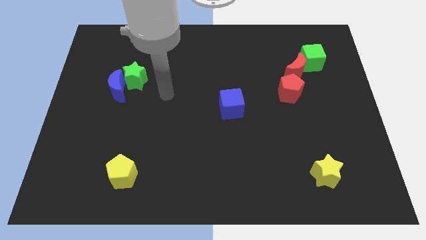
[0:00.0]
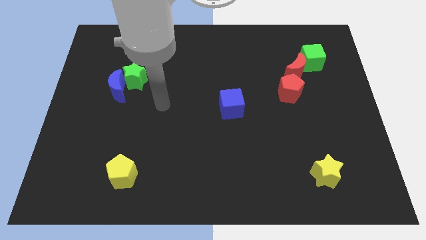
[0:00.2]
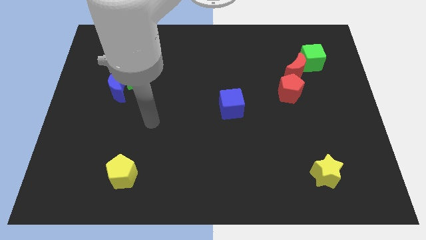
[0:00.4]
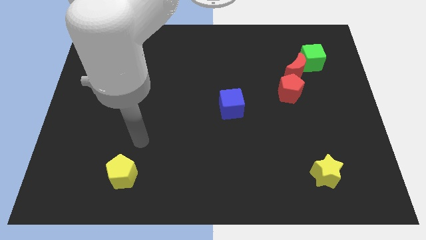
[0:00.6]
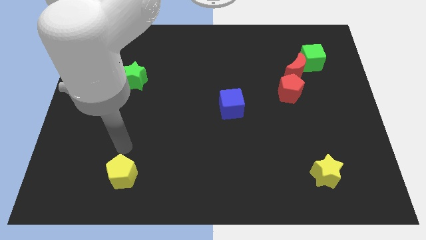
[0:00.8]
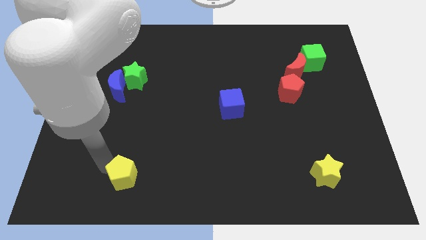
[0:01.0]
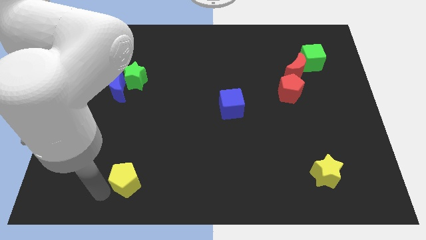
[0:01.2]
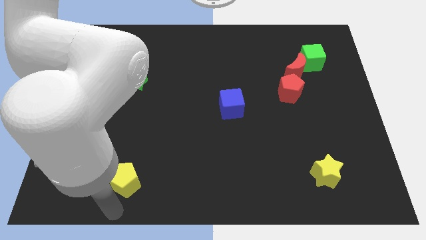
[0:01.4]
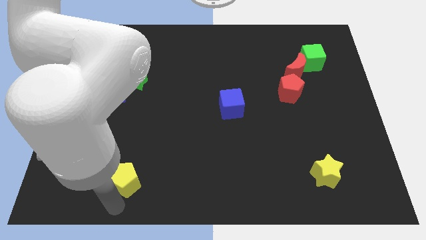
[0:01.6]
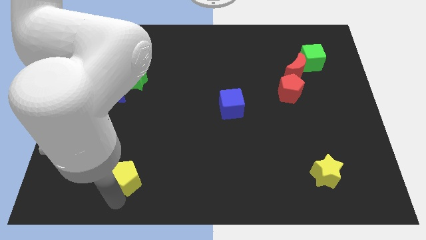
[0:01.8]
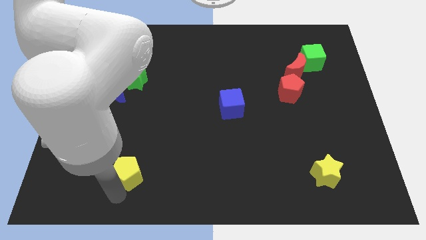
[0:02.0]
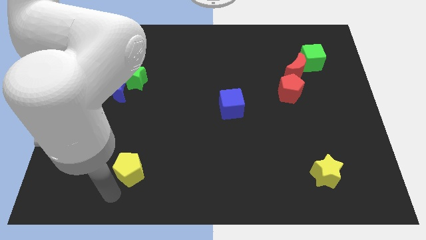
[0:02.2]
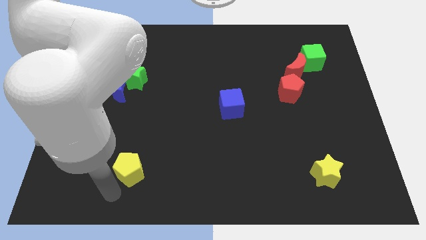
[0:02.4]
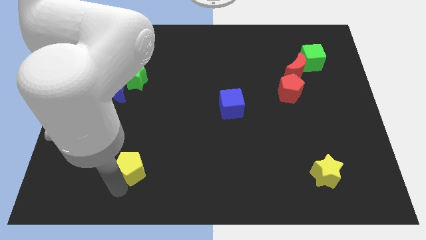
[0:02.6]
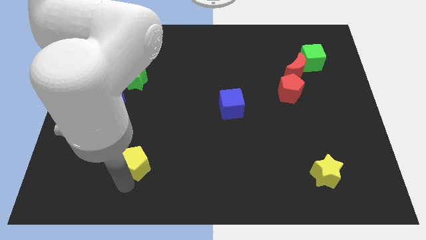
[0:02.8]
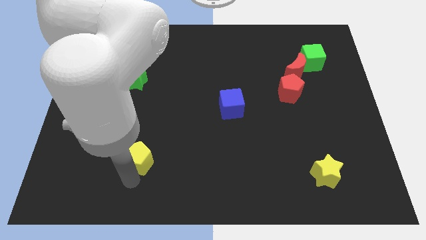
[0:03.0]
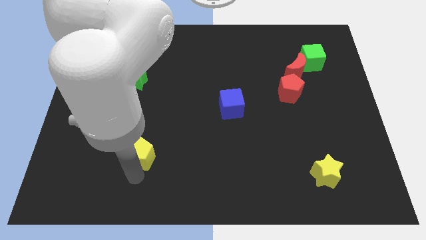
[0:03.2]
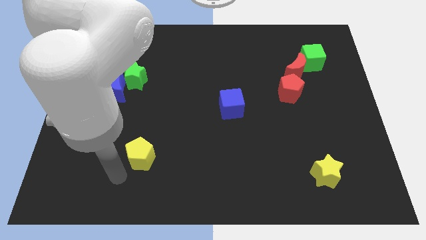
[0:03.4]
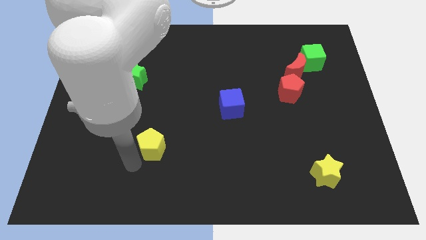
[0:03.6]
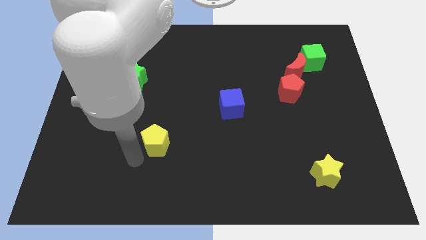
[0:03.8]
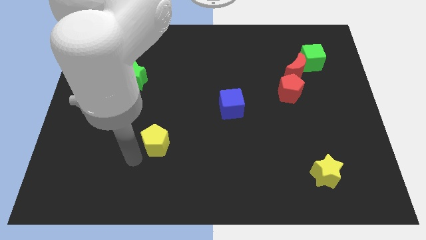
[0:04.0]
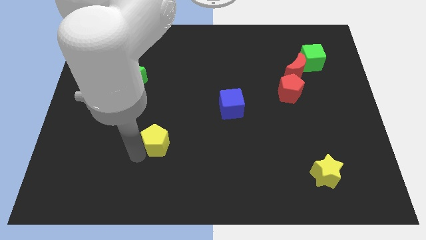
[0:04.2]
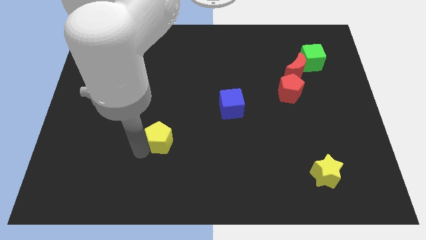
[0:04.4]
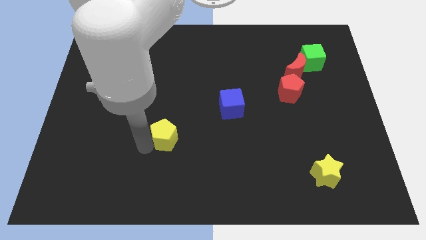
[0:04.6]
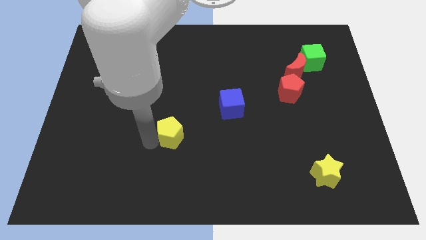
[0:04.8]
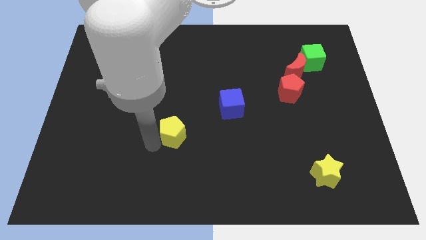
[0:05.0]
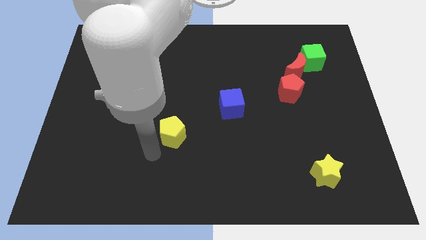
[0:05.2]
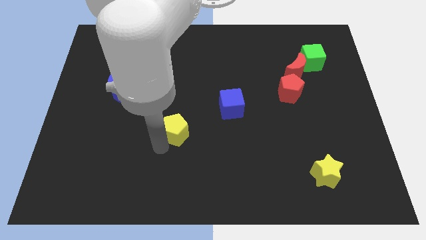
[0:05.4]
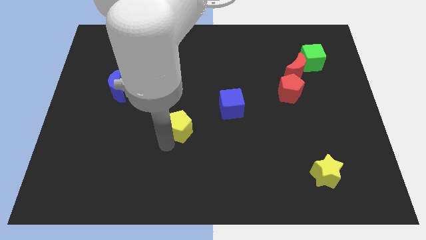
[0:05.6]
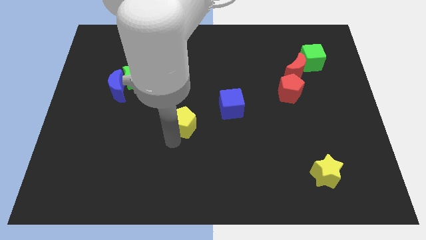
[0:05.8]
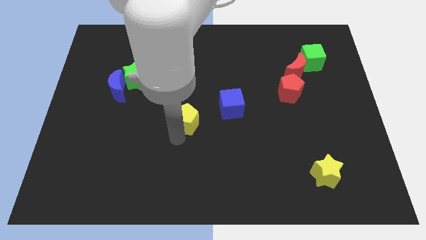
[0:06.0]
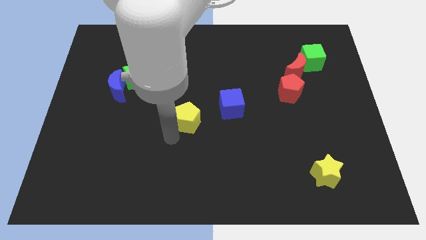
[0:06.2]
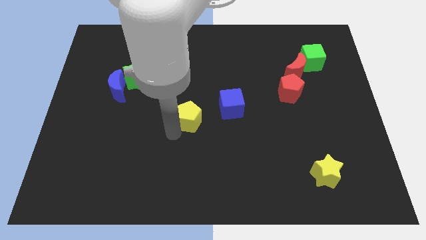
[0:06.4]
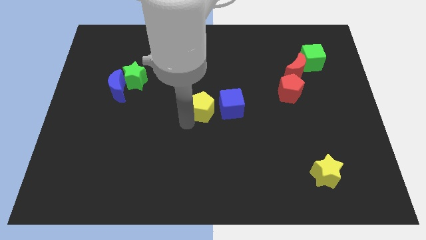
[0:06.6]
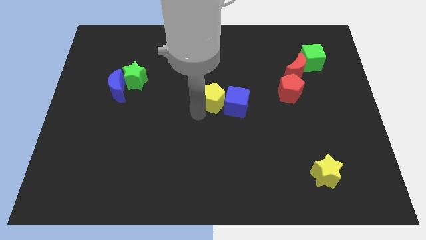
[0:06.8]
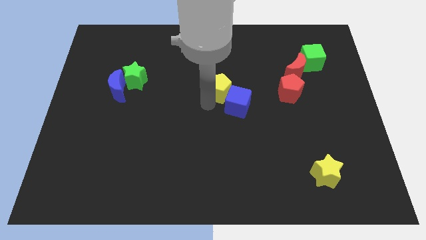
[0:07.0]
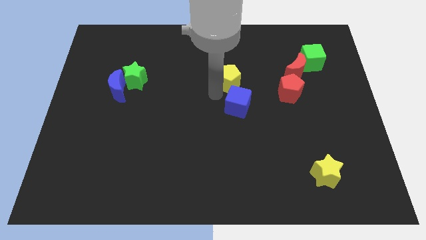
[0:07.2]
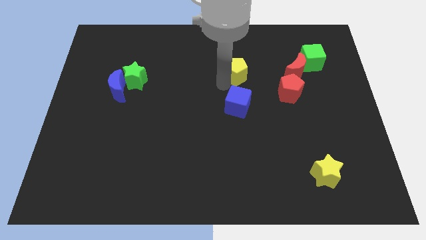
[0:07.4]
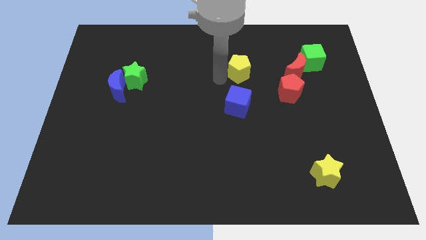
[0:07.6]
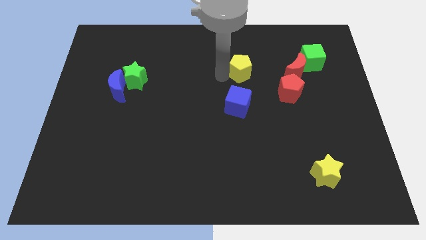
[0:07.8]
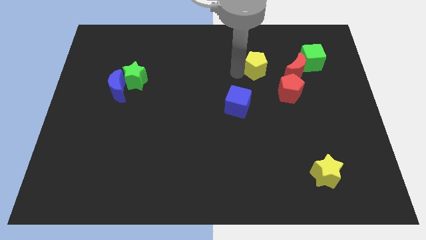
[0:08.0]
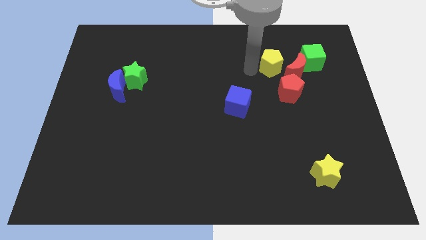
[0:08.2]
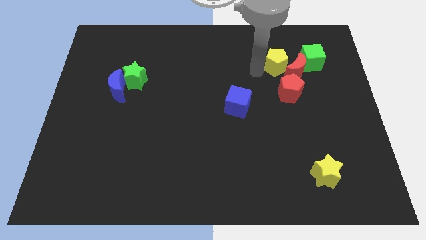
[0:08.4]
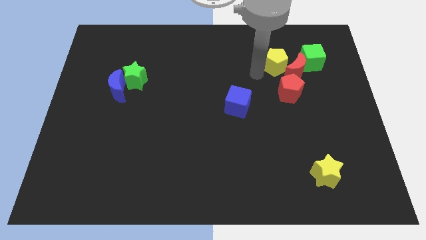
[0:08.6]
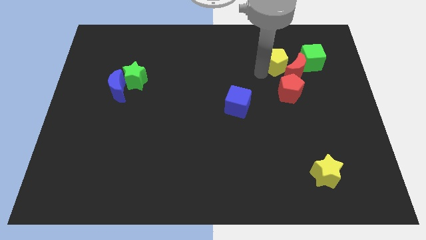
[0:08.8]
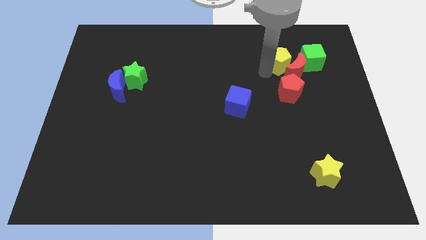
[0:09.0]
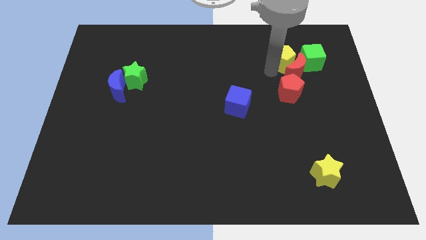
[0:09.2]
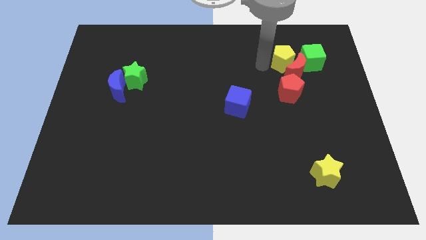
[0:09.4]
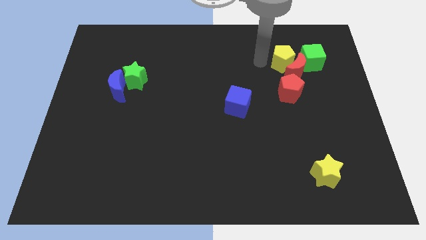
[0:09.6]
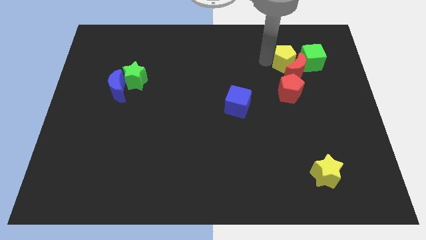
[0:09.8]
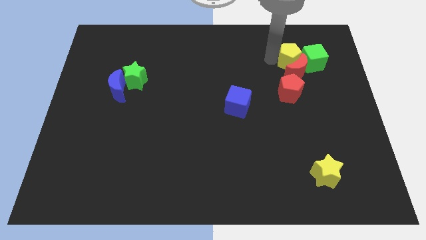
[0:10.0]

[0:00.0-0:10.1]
move the yellow pentagon close to the green cube

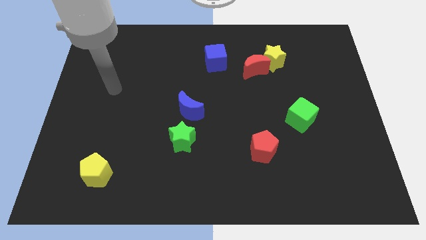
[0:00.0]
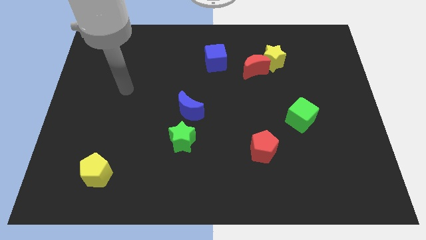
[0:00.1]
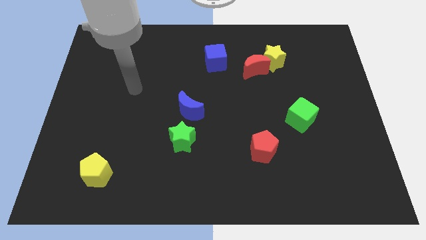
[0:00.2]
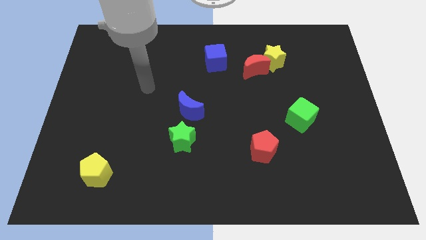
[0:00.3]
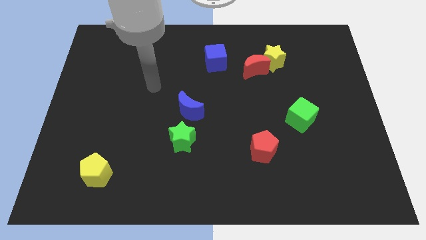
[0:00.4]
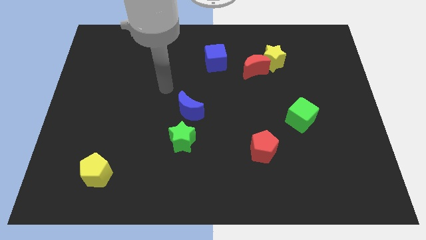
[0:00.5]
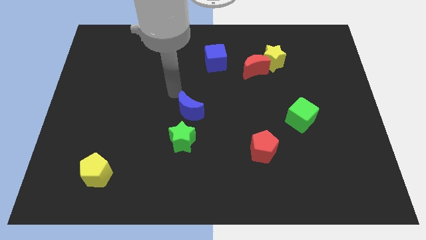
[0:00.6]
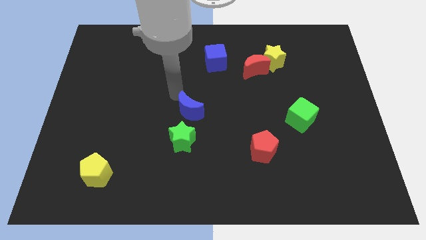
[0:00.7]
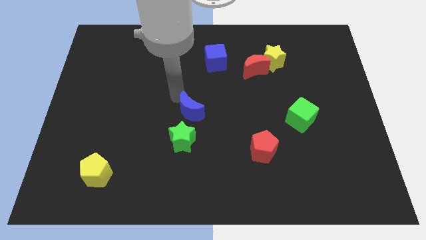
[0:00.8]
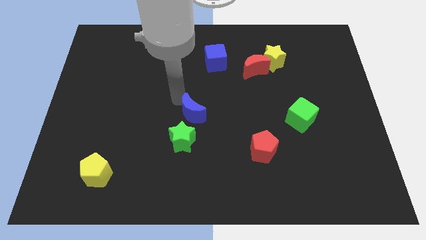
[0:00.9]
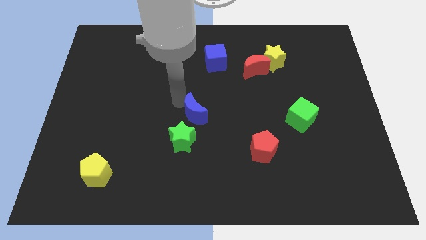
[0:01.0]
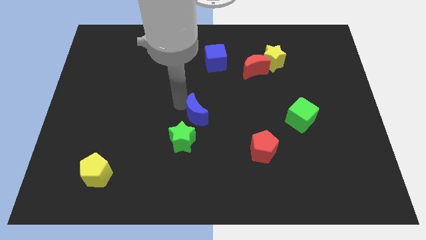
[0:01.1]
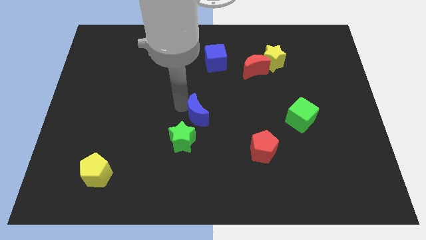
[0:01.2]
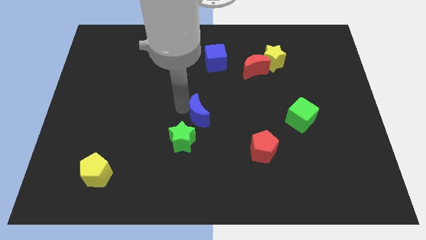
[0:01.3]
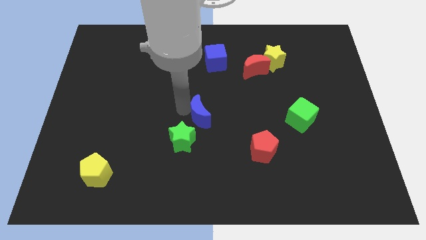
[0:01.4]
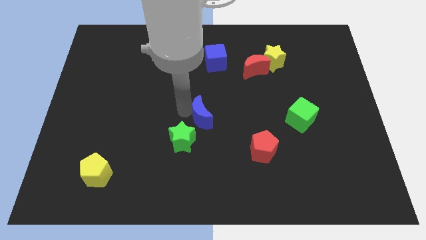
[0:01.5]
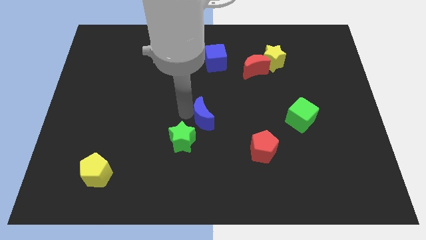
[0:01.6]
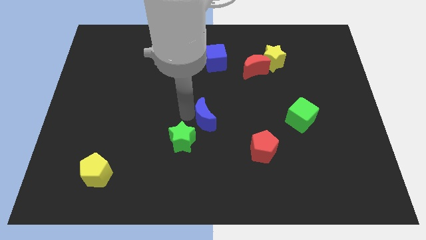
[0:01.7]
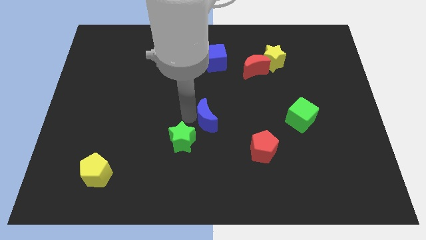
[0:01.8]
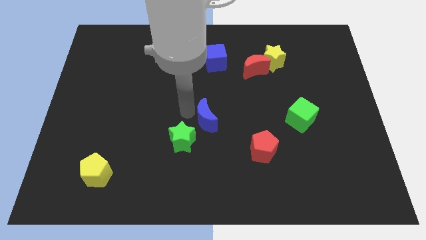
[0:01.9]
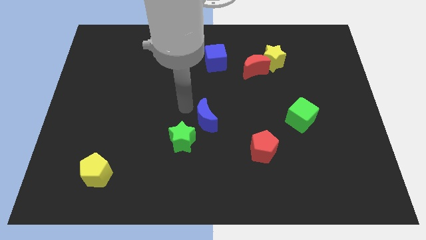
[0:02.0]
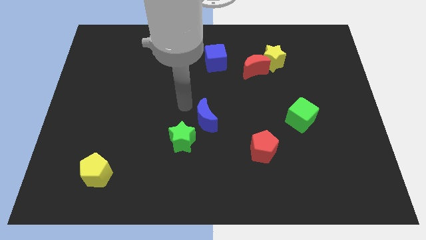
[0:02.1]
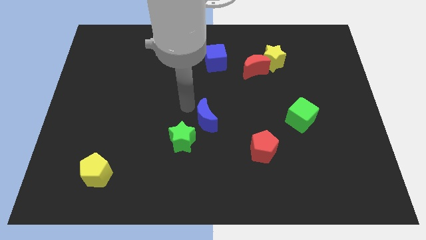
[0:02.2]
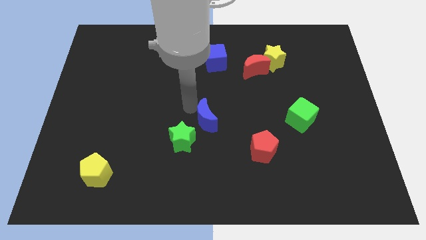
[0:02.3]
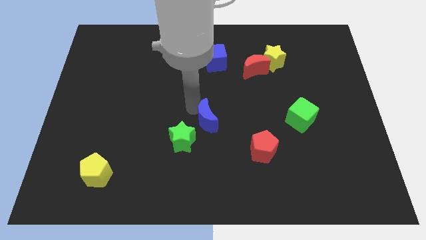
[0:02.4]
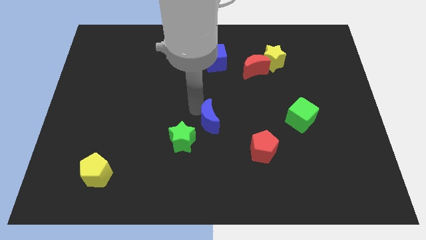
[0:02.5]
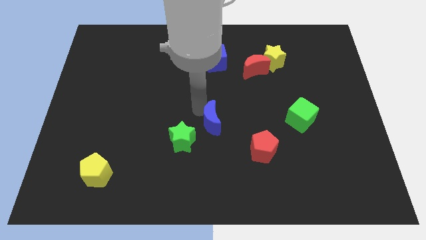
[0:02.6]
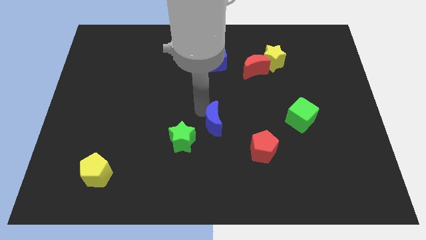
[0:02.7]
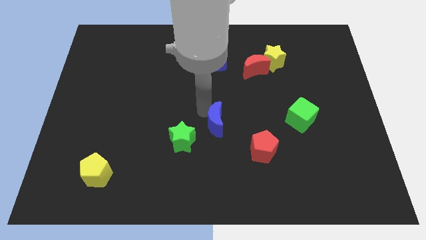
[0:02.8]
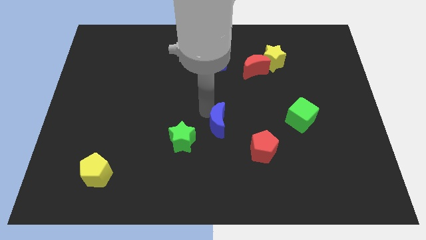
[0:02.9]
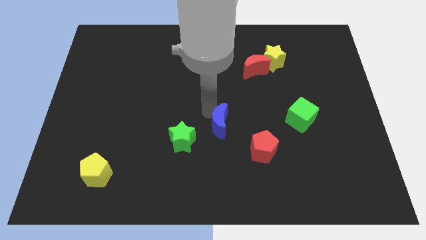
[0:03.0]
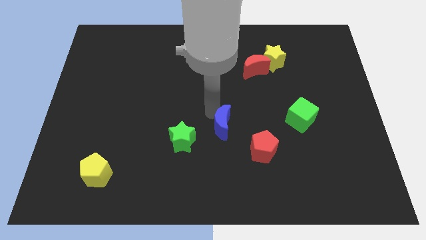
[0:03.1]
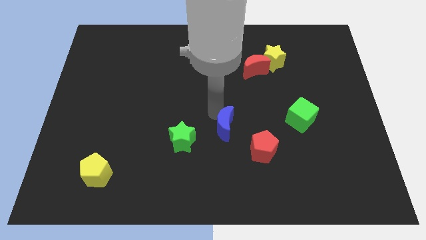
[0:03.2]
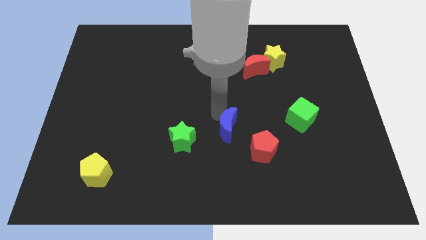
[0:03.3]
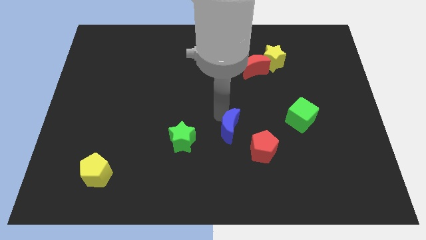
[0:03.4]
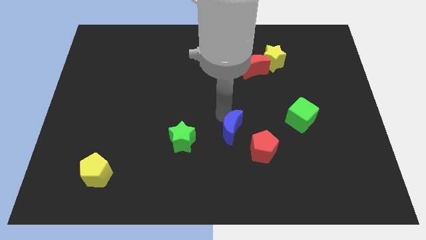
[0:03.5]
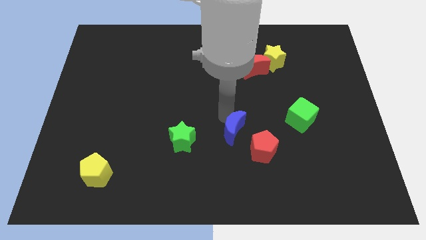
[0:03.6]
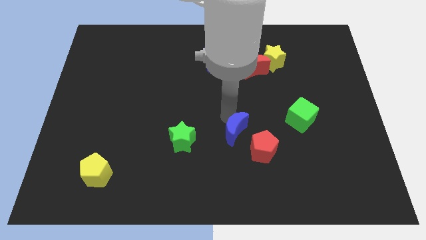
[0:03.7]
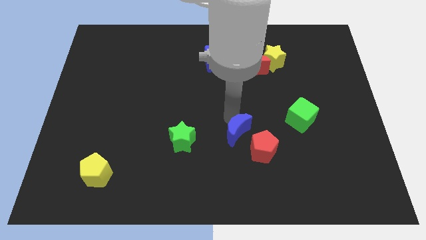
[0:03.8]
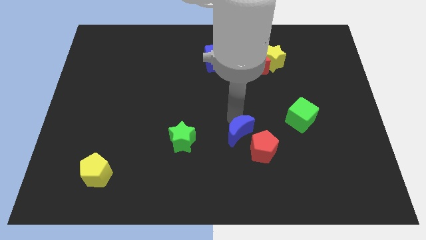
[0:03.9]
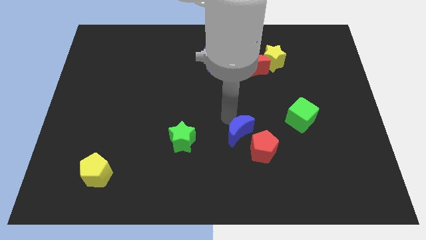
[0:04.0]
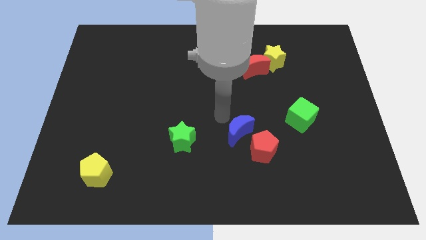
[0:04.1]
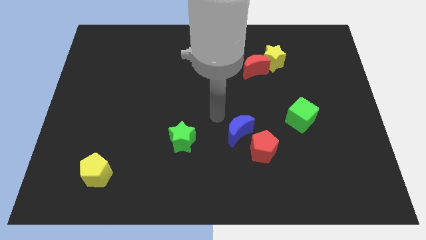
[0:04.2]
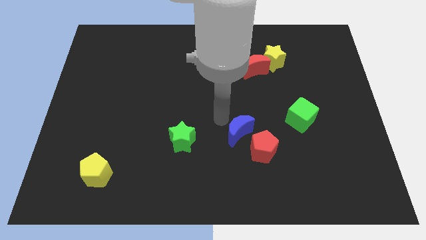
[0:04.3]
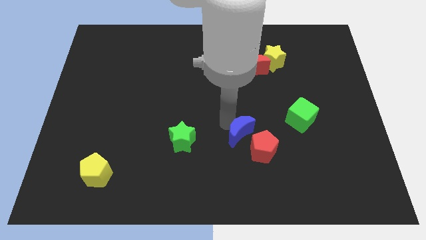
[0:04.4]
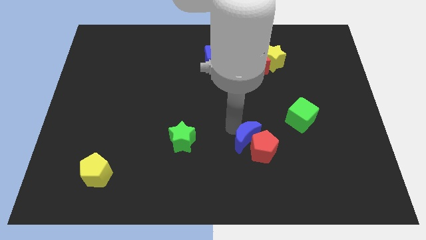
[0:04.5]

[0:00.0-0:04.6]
slide the blue moon next to the red pentagon
